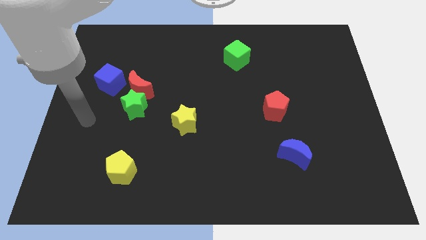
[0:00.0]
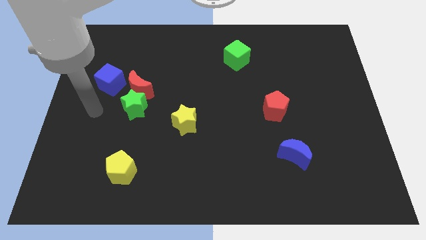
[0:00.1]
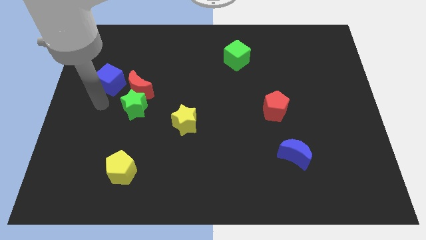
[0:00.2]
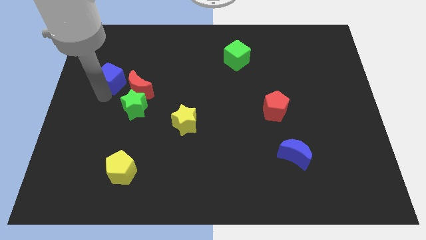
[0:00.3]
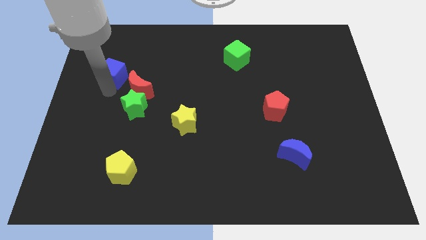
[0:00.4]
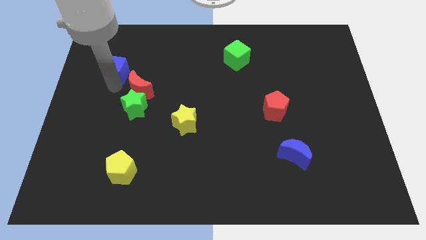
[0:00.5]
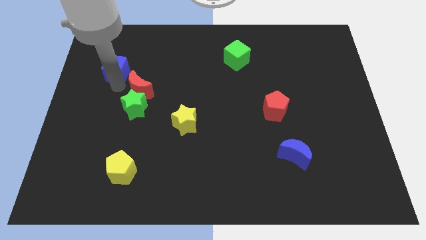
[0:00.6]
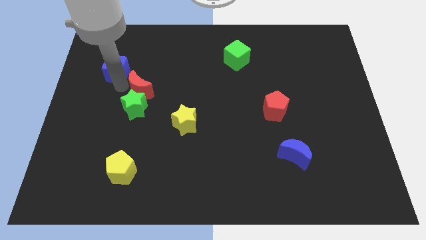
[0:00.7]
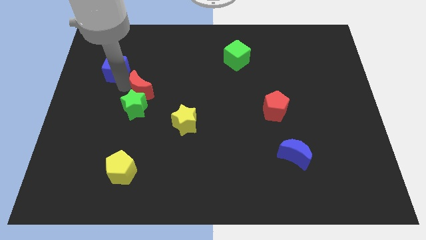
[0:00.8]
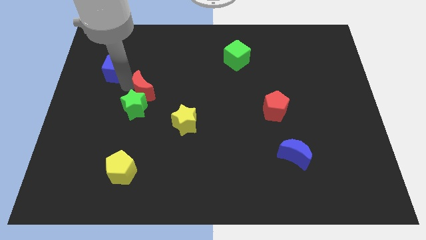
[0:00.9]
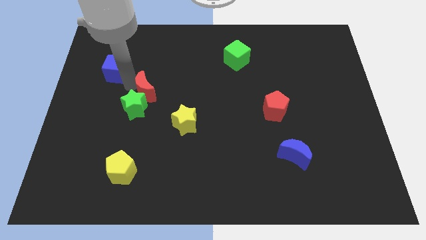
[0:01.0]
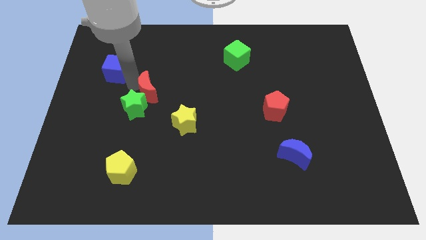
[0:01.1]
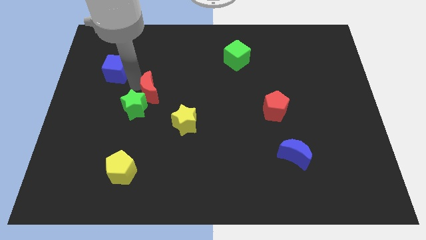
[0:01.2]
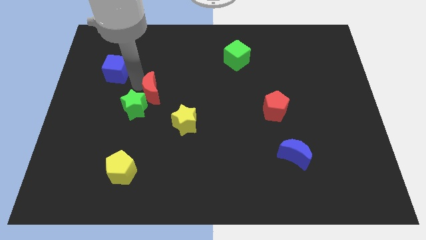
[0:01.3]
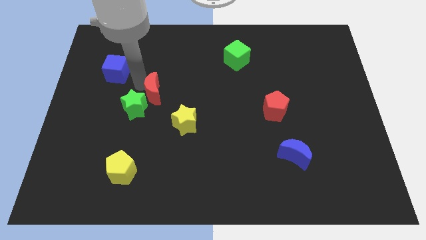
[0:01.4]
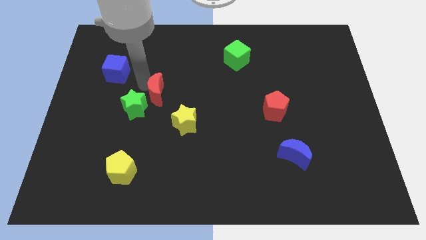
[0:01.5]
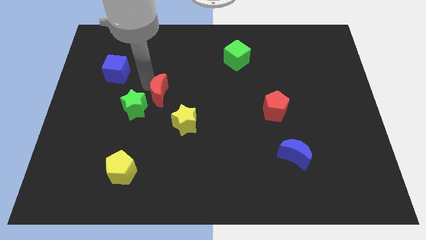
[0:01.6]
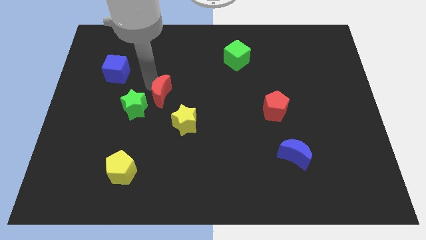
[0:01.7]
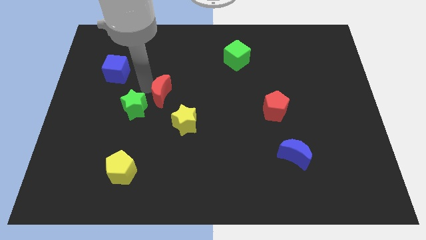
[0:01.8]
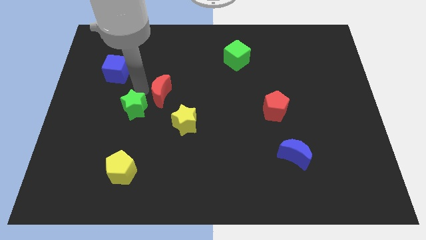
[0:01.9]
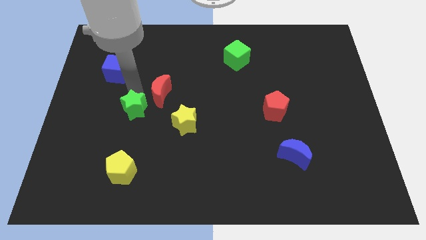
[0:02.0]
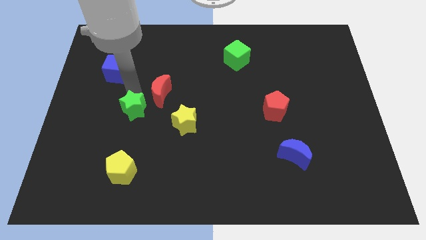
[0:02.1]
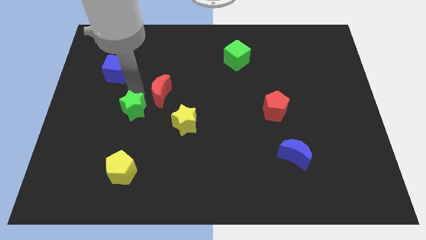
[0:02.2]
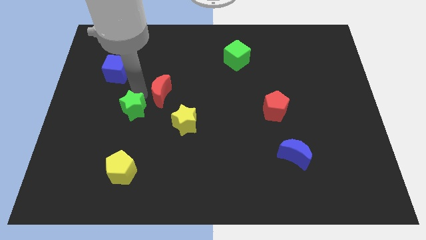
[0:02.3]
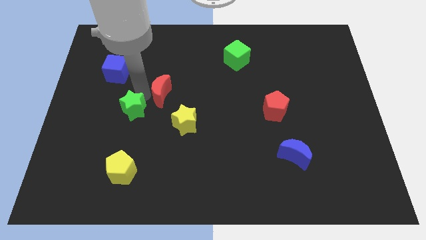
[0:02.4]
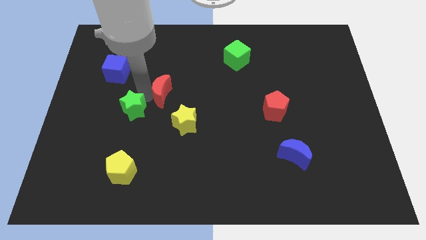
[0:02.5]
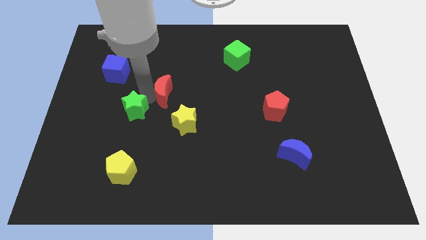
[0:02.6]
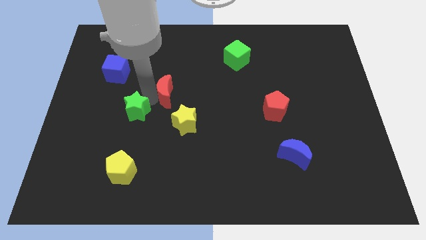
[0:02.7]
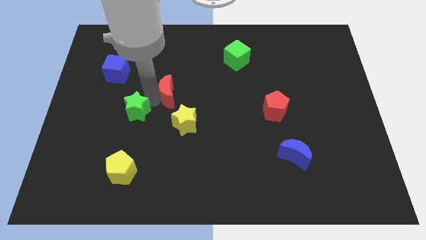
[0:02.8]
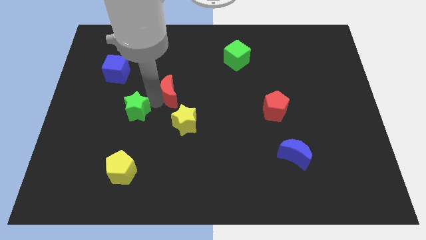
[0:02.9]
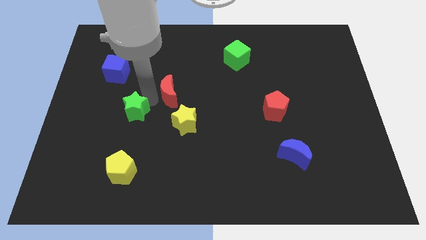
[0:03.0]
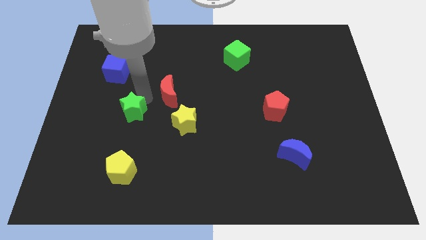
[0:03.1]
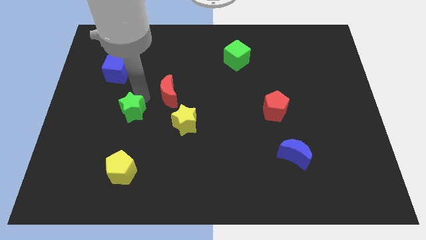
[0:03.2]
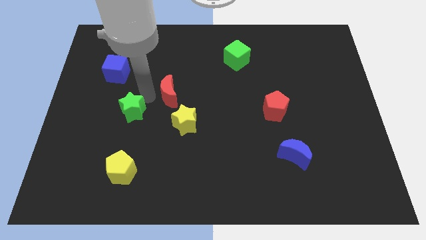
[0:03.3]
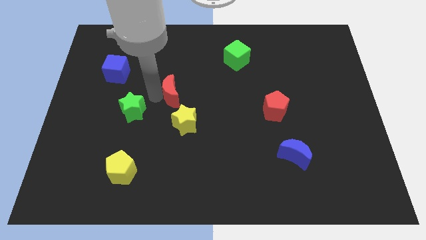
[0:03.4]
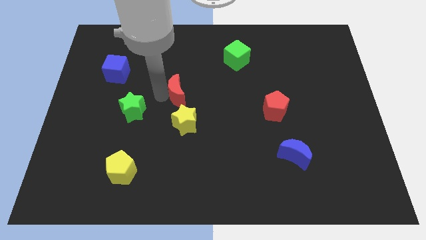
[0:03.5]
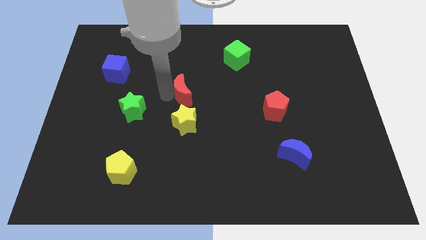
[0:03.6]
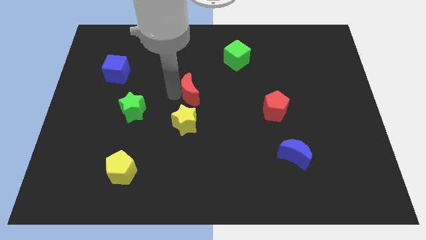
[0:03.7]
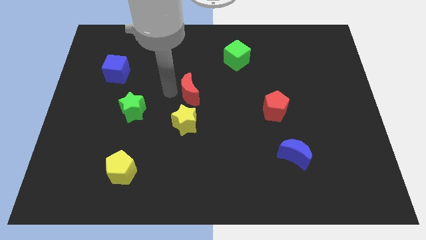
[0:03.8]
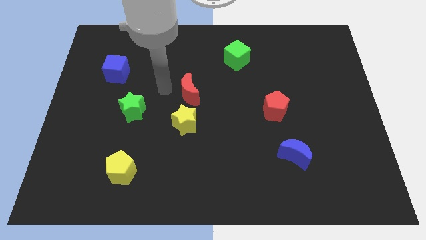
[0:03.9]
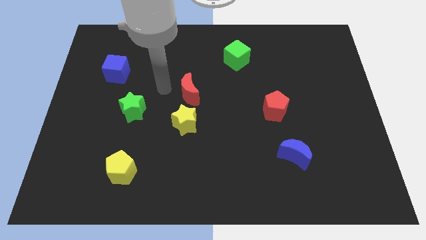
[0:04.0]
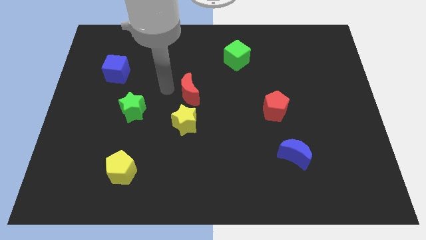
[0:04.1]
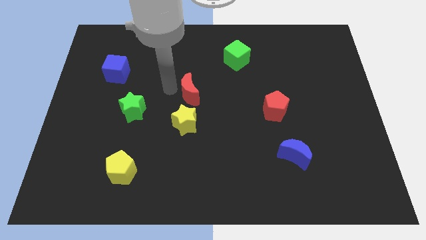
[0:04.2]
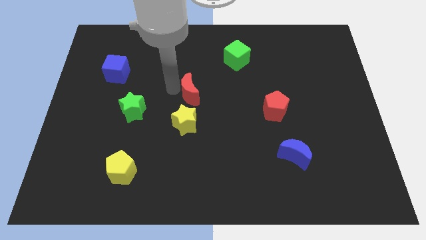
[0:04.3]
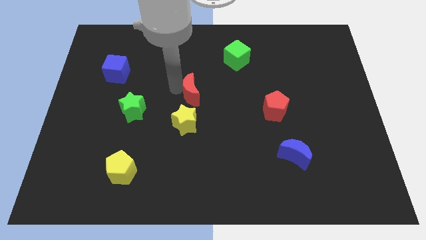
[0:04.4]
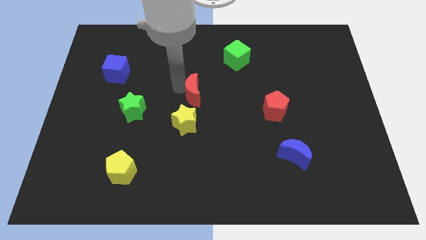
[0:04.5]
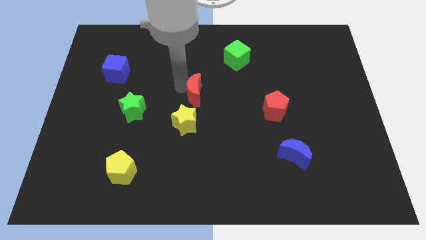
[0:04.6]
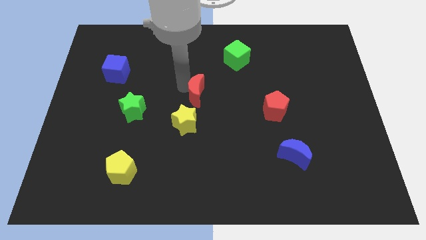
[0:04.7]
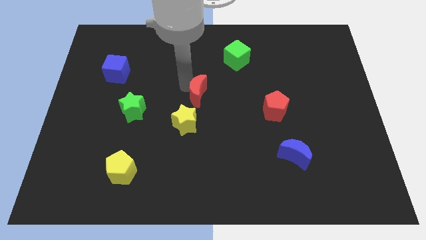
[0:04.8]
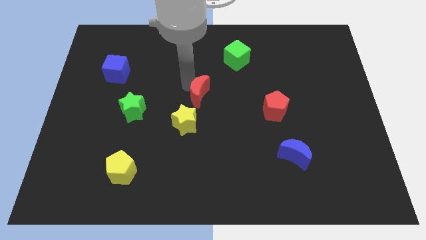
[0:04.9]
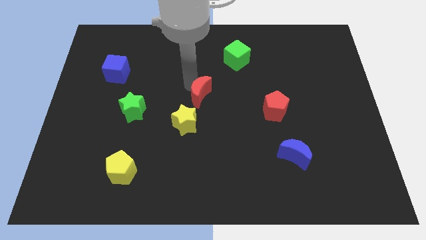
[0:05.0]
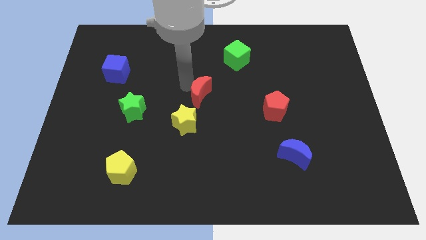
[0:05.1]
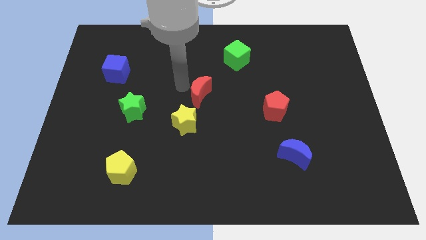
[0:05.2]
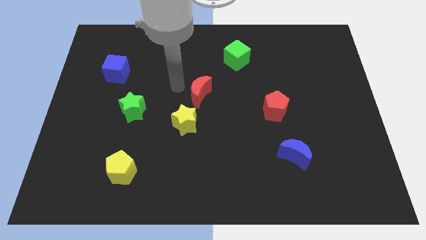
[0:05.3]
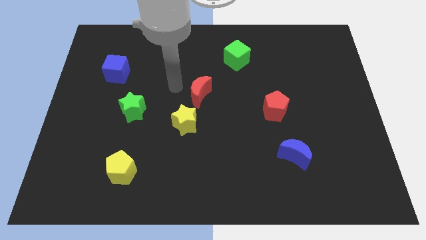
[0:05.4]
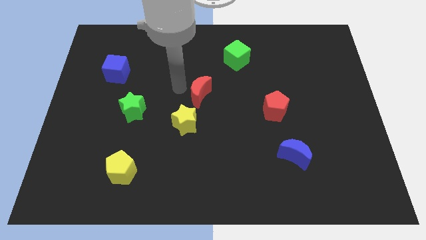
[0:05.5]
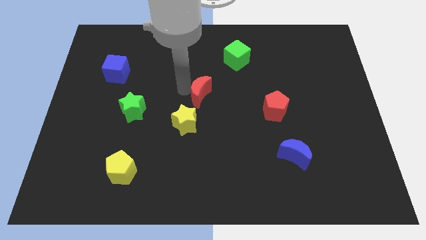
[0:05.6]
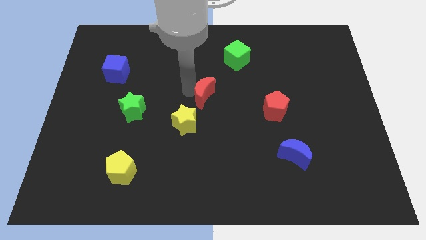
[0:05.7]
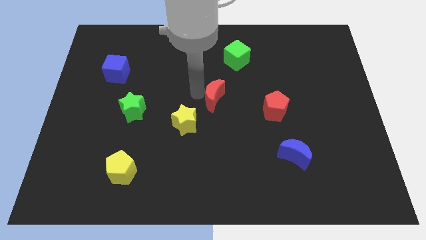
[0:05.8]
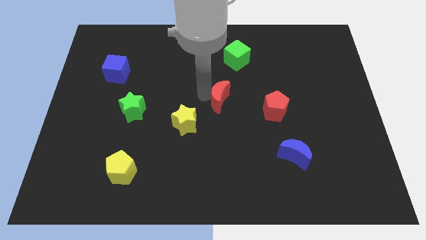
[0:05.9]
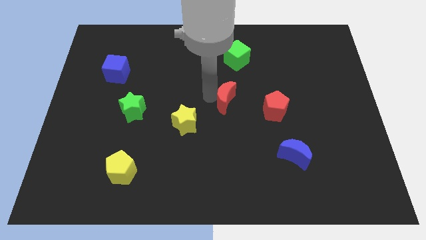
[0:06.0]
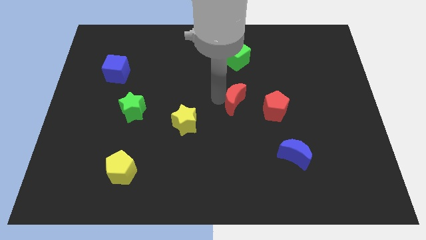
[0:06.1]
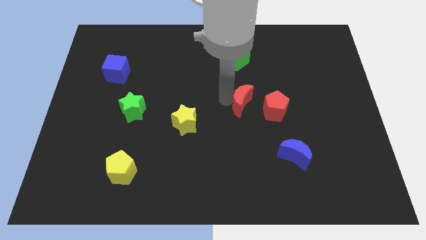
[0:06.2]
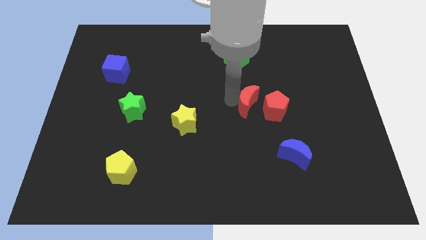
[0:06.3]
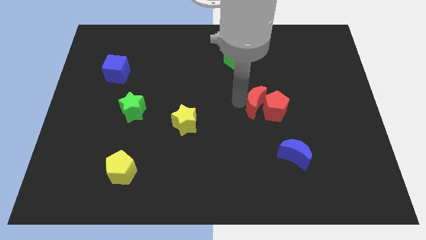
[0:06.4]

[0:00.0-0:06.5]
push the red moon next to the red pentagon

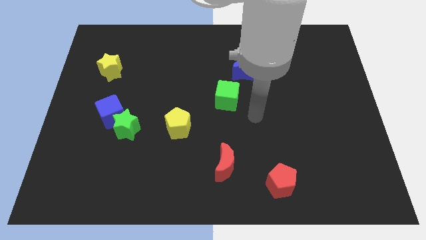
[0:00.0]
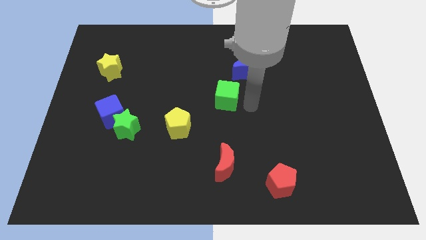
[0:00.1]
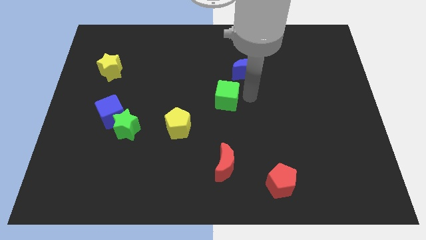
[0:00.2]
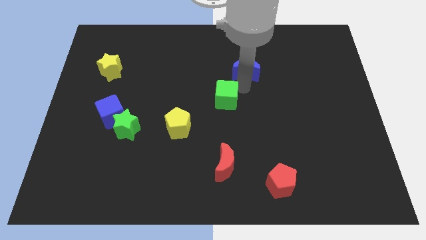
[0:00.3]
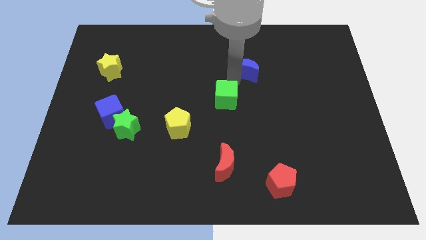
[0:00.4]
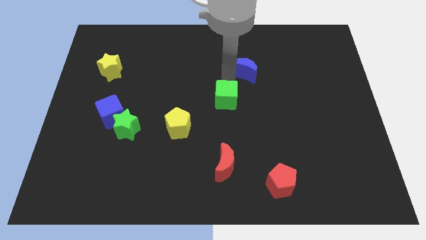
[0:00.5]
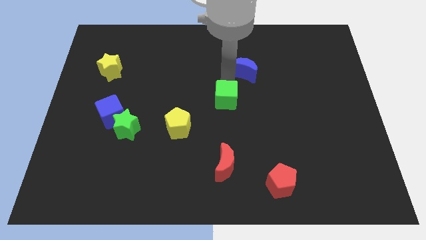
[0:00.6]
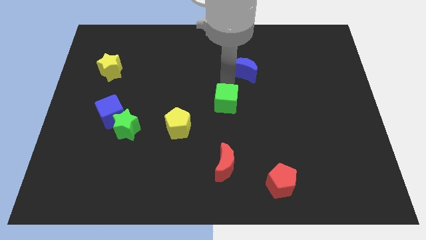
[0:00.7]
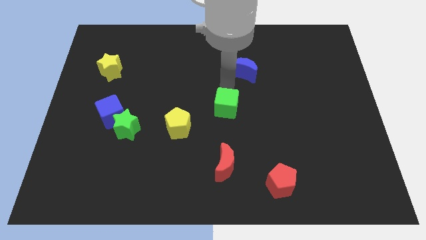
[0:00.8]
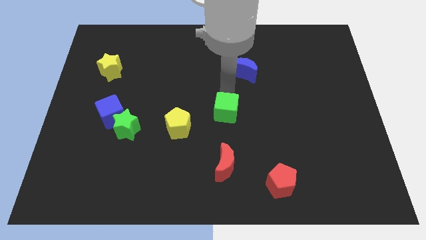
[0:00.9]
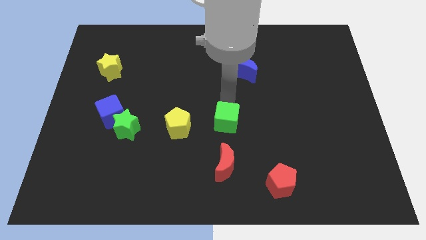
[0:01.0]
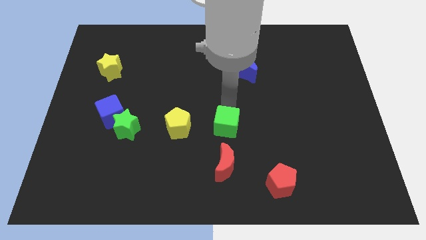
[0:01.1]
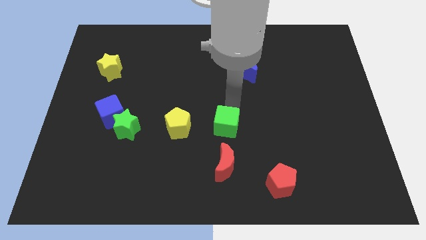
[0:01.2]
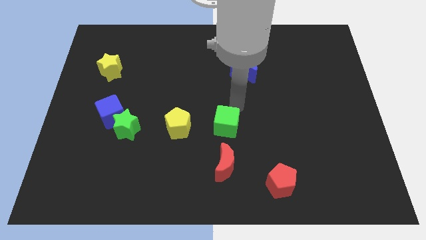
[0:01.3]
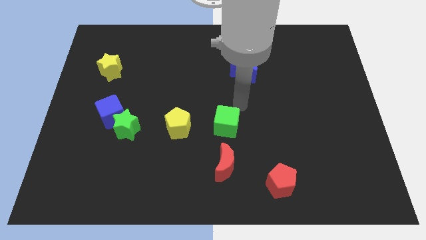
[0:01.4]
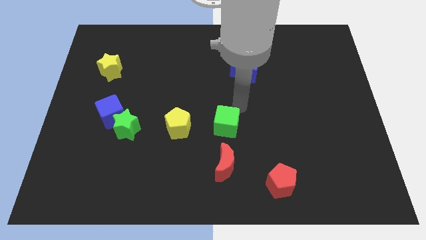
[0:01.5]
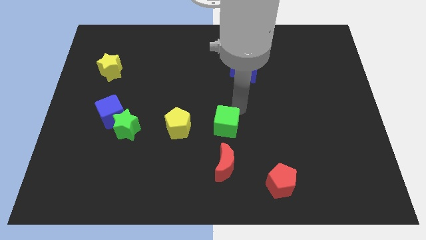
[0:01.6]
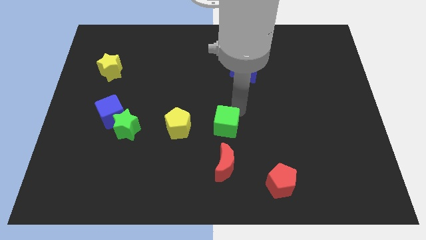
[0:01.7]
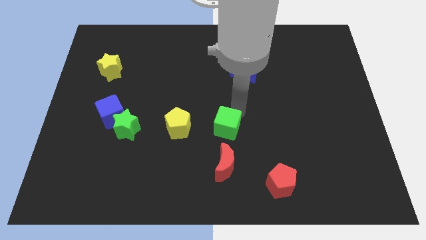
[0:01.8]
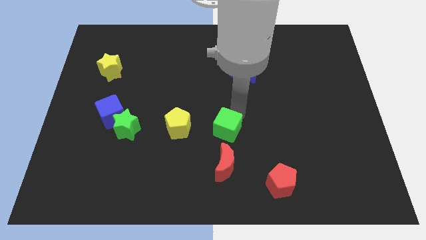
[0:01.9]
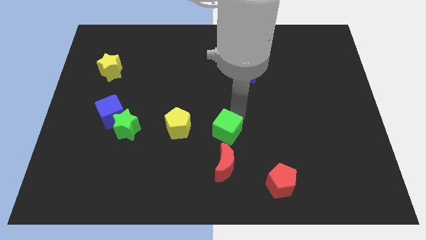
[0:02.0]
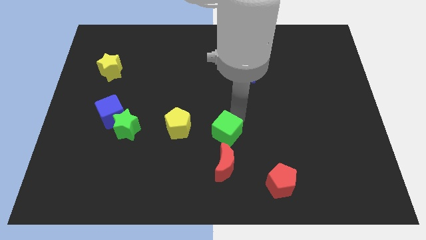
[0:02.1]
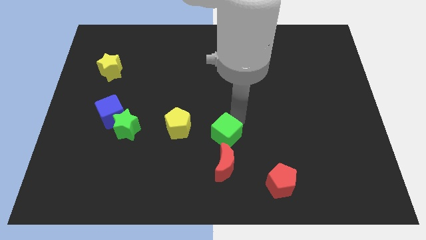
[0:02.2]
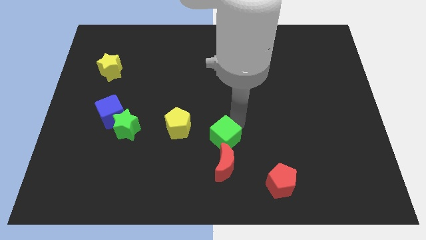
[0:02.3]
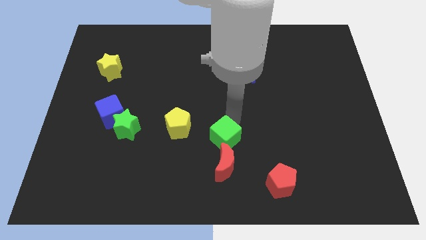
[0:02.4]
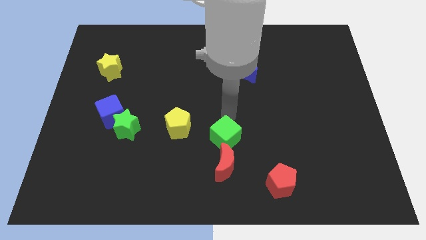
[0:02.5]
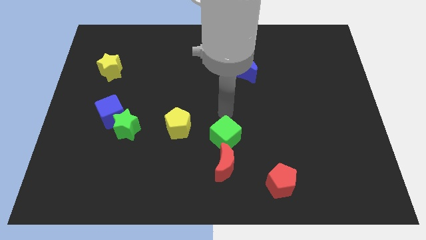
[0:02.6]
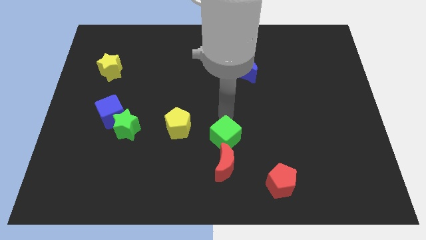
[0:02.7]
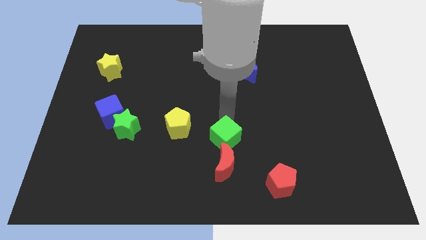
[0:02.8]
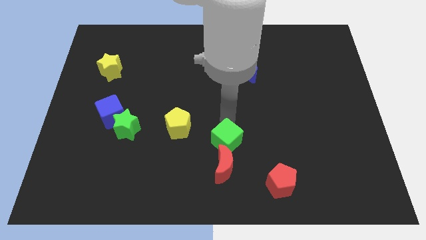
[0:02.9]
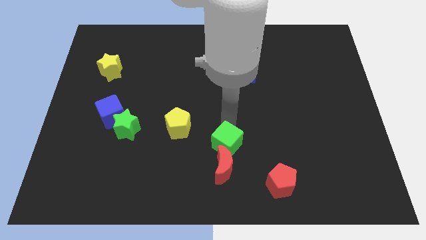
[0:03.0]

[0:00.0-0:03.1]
move the green cube close to the red moon
